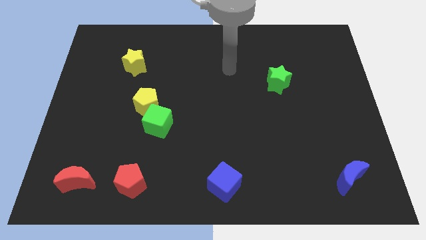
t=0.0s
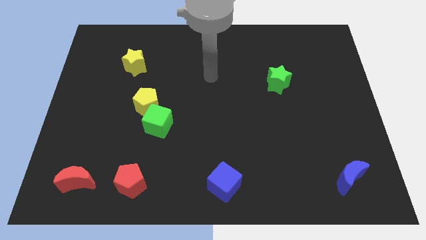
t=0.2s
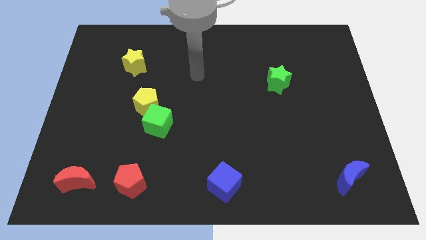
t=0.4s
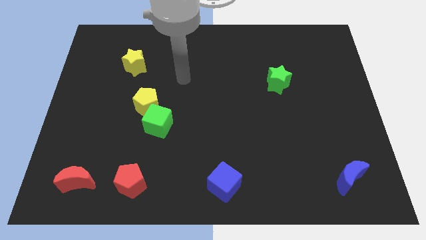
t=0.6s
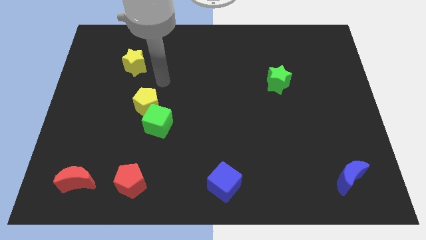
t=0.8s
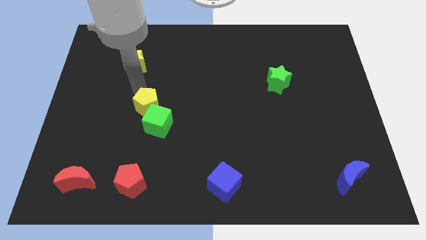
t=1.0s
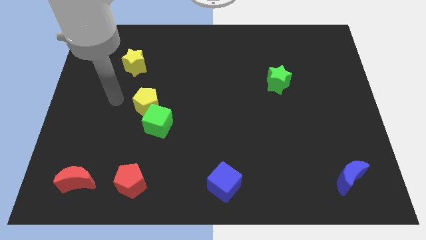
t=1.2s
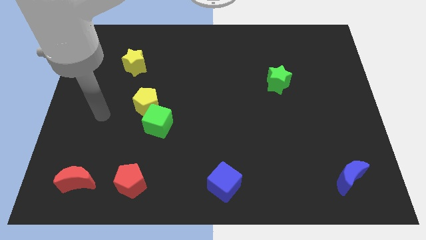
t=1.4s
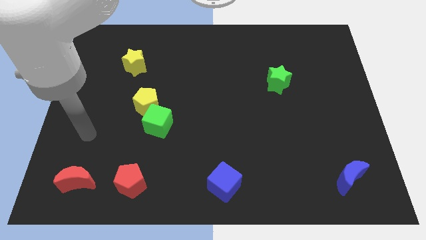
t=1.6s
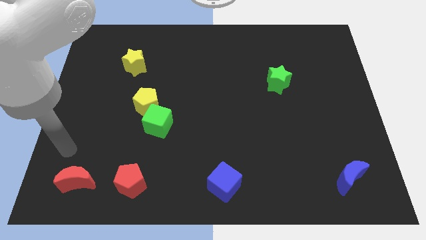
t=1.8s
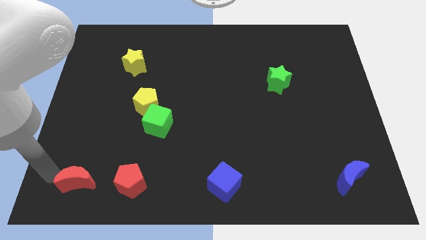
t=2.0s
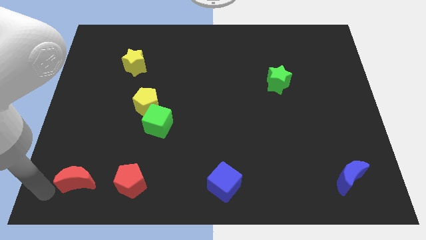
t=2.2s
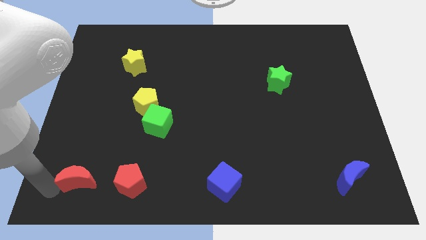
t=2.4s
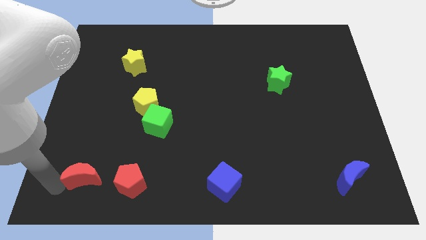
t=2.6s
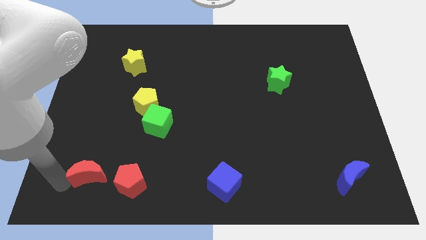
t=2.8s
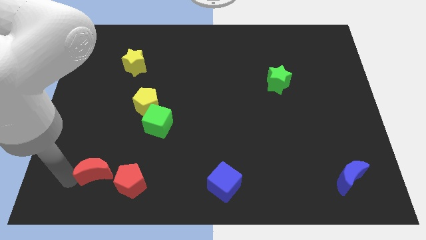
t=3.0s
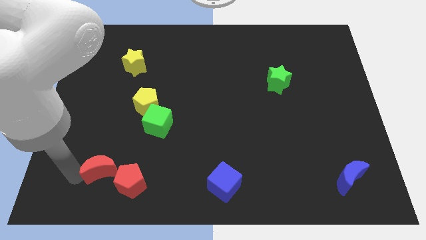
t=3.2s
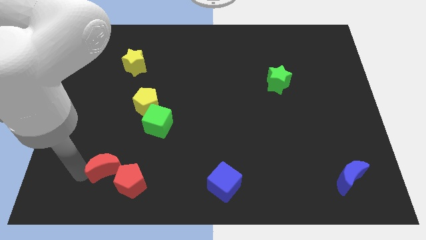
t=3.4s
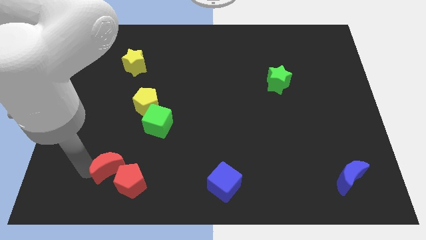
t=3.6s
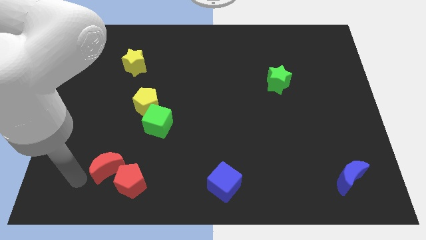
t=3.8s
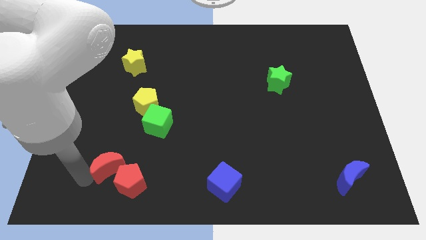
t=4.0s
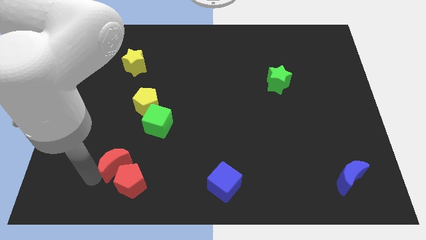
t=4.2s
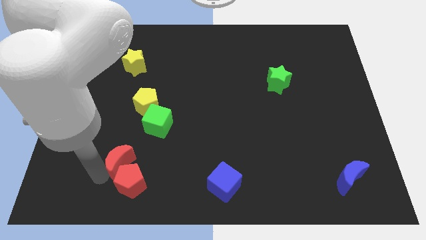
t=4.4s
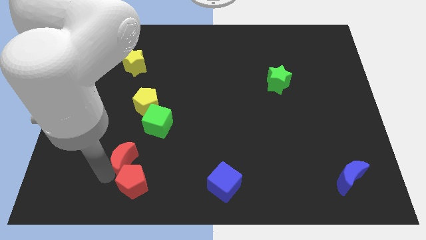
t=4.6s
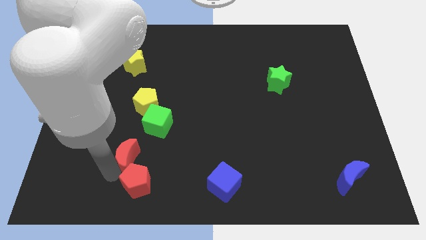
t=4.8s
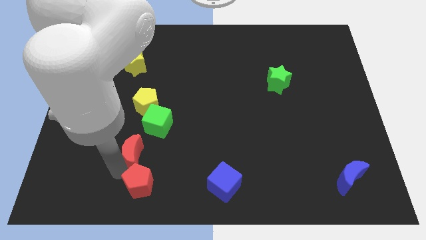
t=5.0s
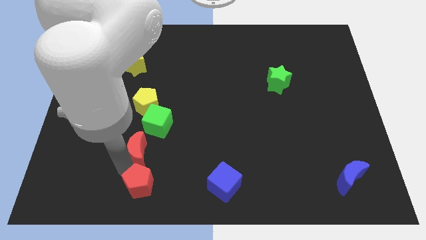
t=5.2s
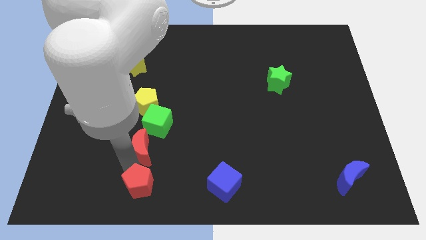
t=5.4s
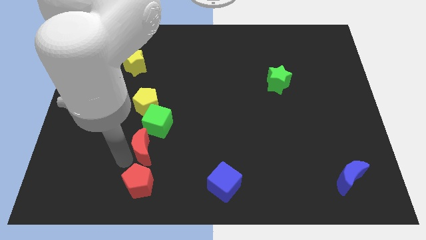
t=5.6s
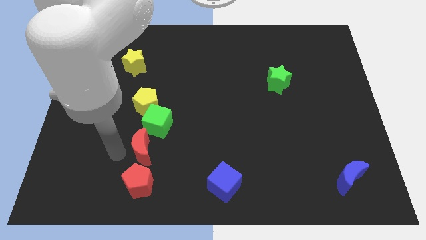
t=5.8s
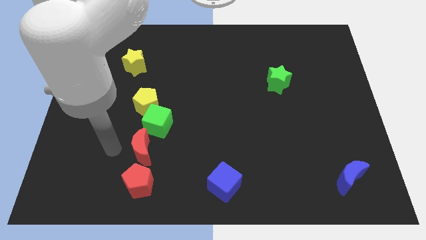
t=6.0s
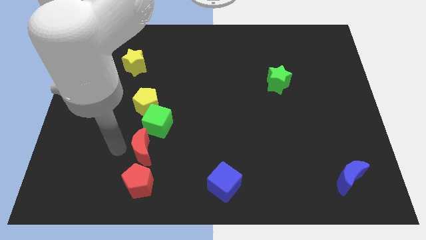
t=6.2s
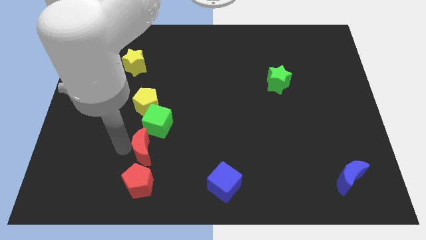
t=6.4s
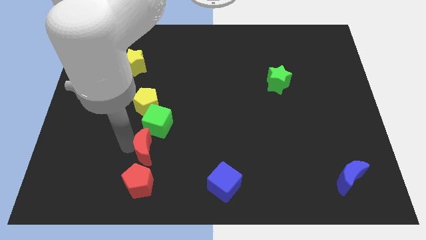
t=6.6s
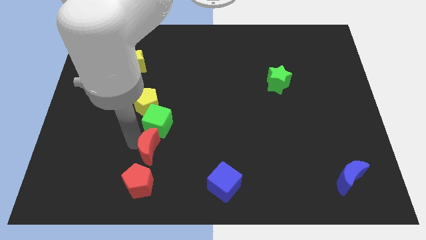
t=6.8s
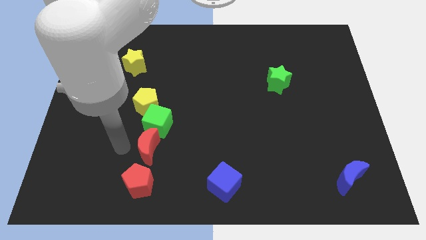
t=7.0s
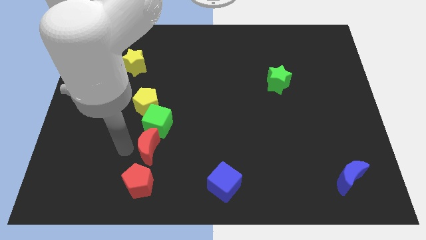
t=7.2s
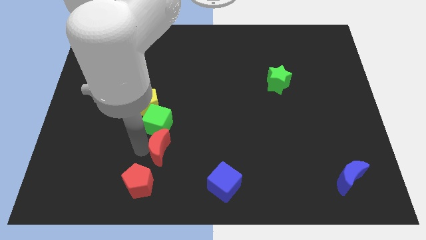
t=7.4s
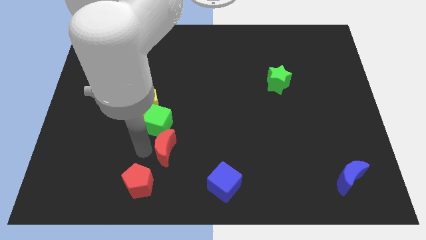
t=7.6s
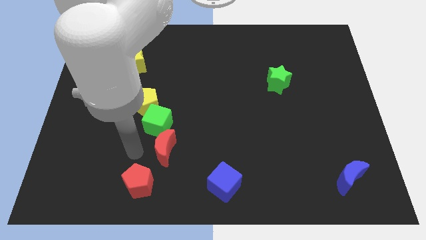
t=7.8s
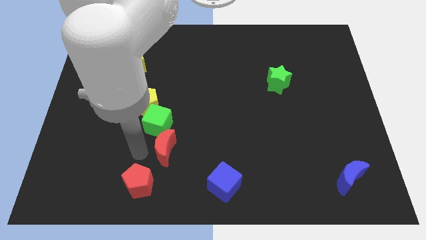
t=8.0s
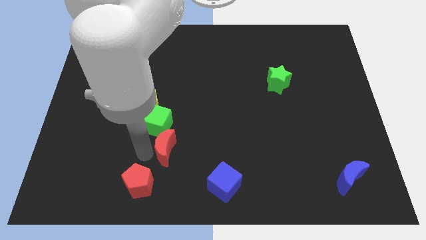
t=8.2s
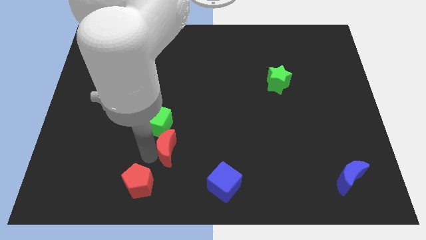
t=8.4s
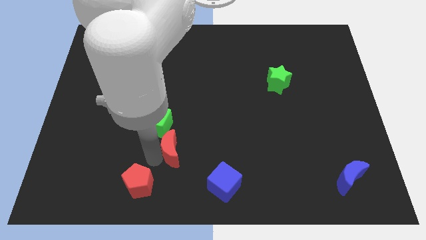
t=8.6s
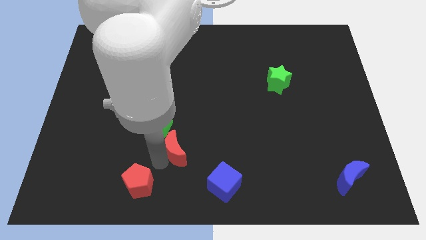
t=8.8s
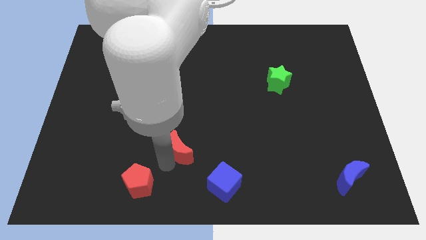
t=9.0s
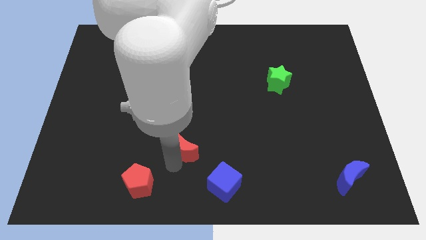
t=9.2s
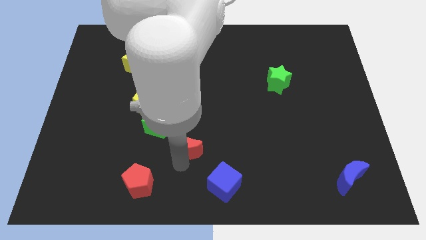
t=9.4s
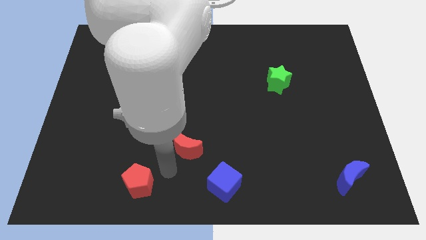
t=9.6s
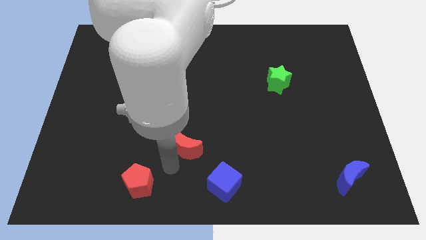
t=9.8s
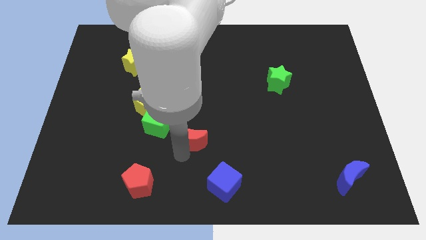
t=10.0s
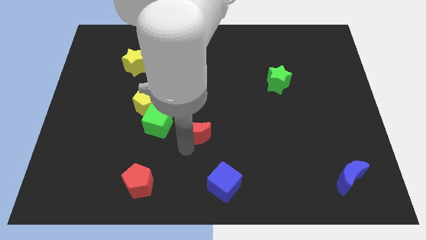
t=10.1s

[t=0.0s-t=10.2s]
move the red moon upwards and to the right diagonally

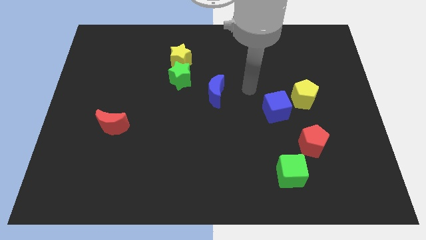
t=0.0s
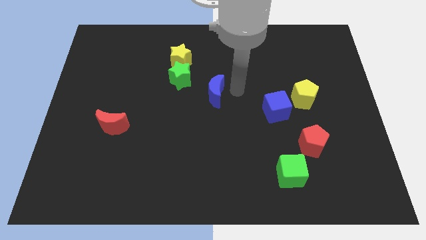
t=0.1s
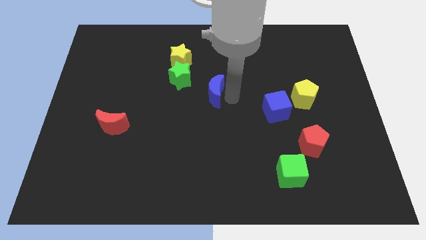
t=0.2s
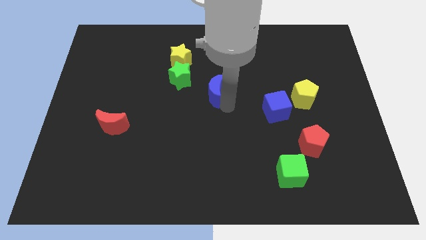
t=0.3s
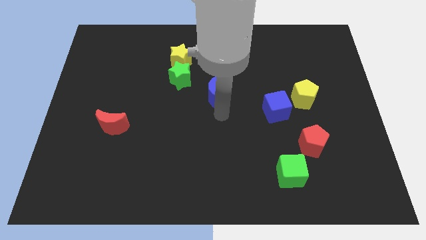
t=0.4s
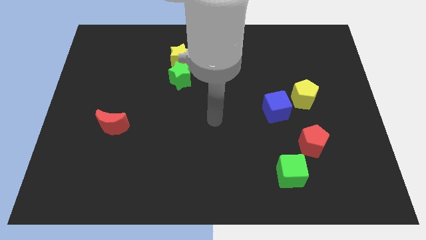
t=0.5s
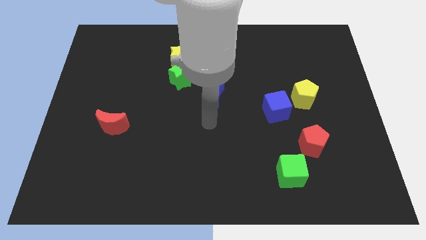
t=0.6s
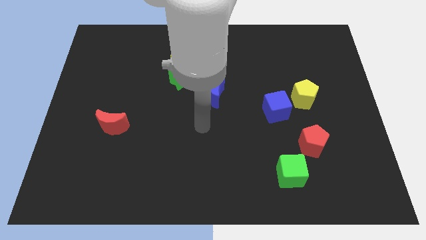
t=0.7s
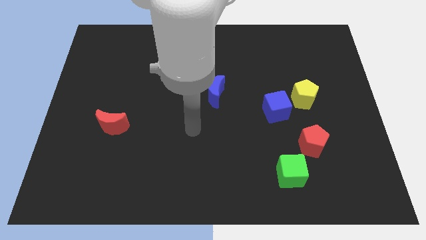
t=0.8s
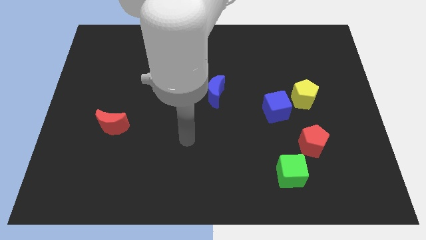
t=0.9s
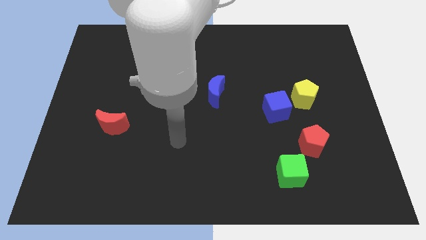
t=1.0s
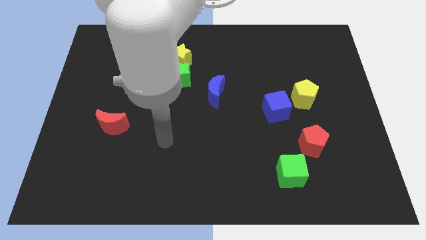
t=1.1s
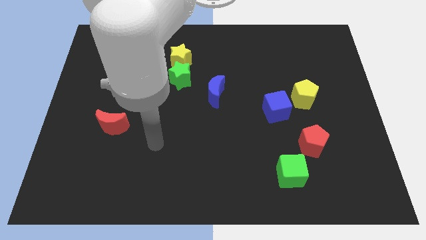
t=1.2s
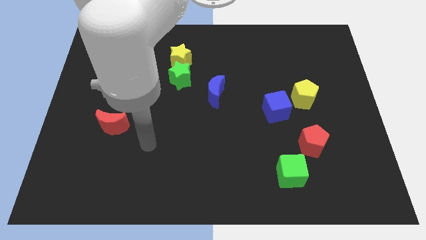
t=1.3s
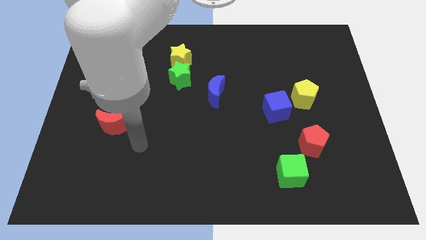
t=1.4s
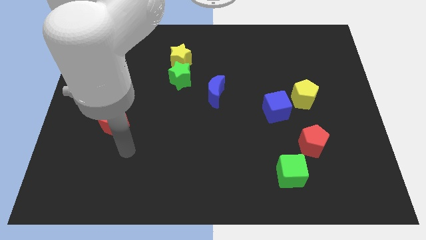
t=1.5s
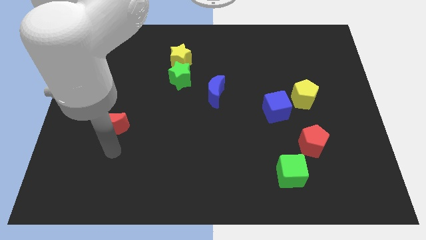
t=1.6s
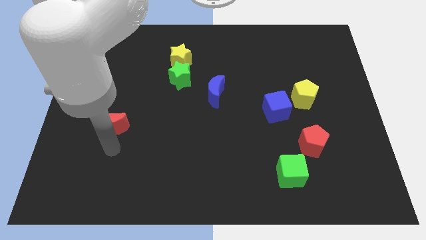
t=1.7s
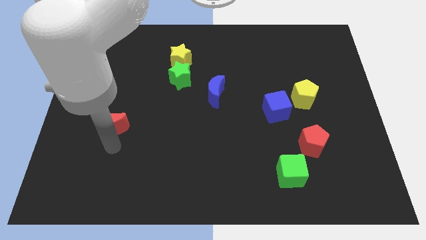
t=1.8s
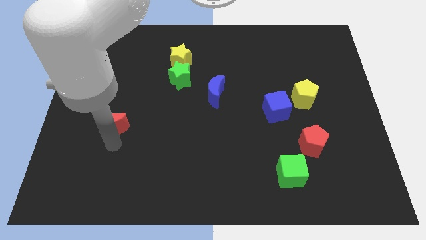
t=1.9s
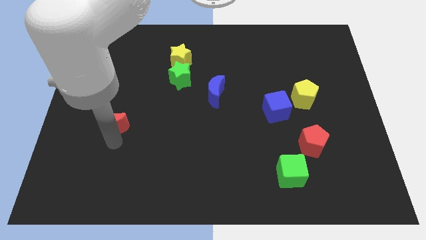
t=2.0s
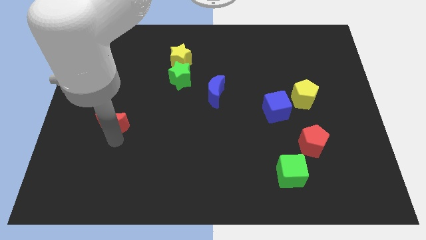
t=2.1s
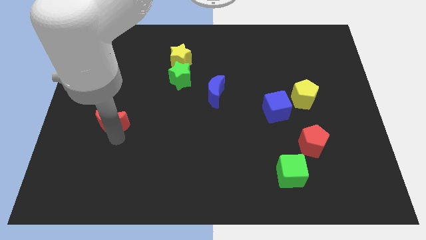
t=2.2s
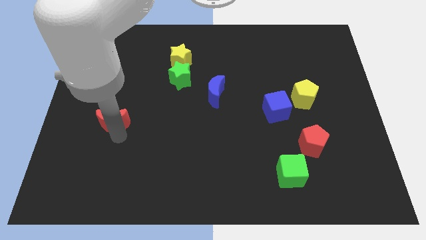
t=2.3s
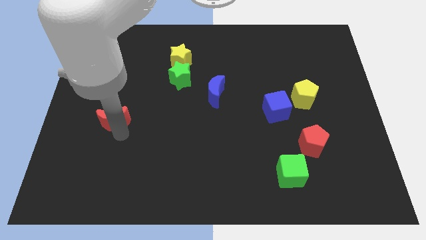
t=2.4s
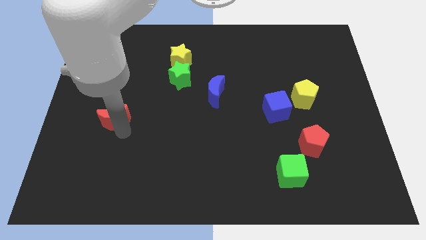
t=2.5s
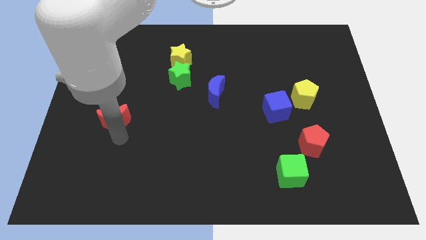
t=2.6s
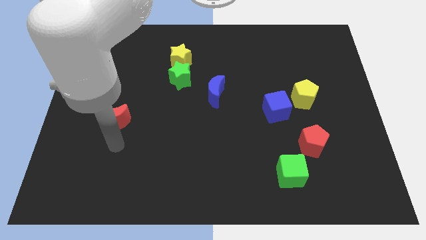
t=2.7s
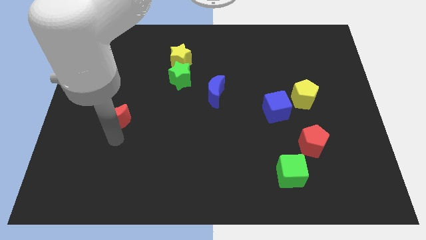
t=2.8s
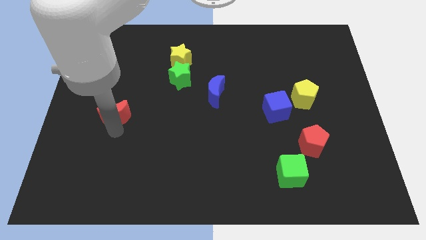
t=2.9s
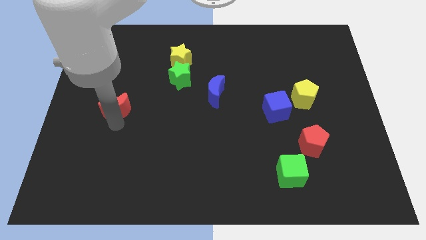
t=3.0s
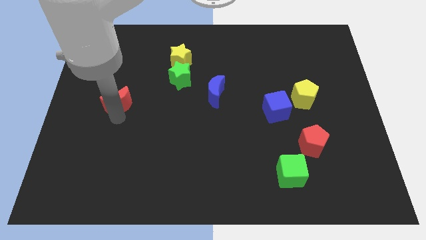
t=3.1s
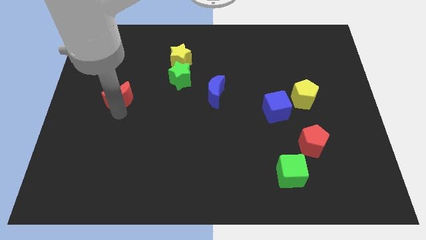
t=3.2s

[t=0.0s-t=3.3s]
slide the red moon up a bit

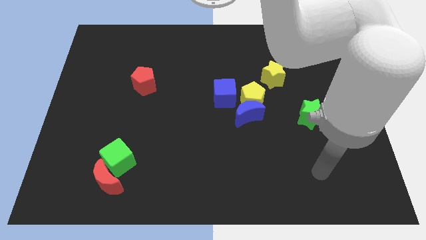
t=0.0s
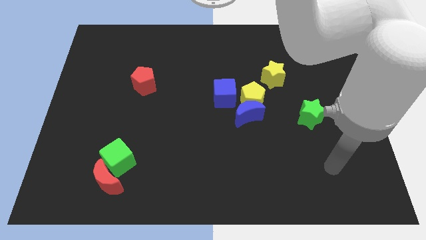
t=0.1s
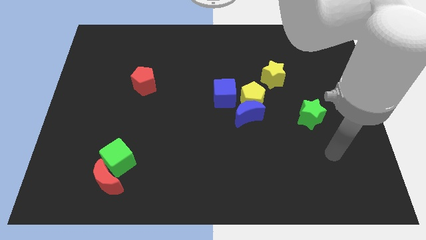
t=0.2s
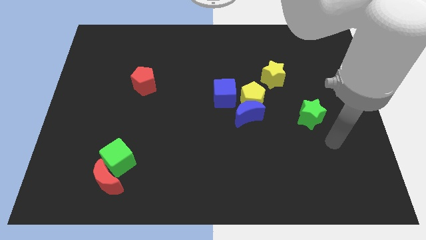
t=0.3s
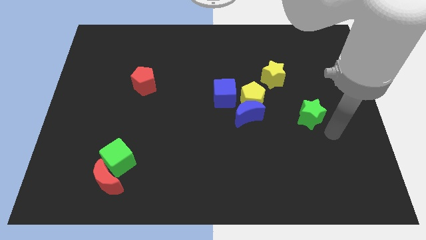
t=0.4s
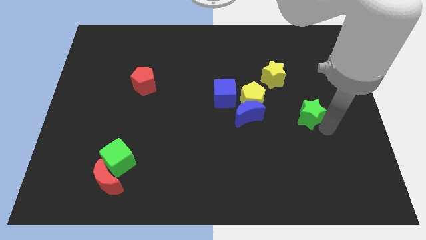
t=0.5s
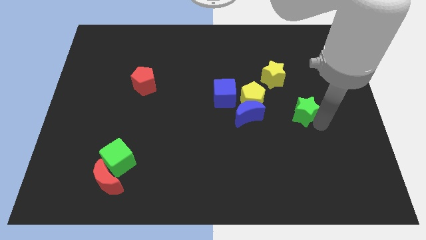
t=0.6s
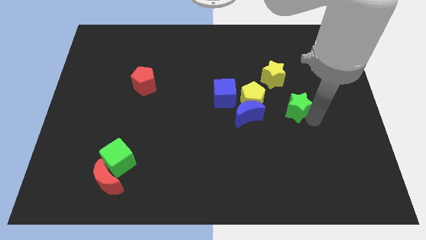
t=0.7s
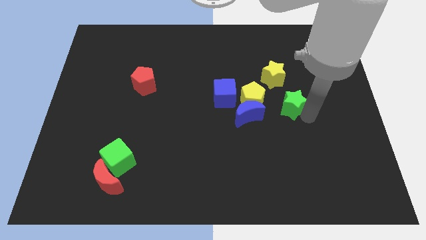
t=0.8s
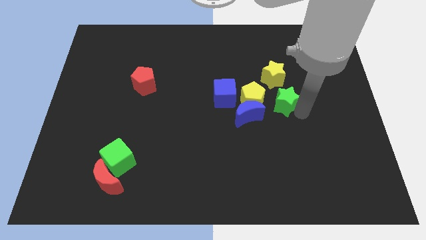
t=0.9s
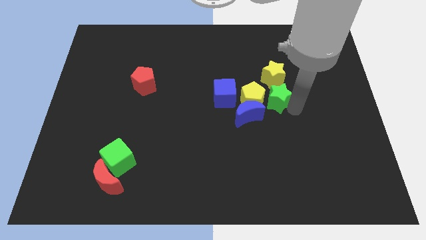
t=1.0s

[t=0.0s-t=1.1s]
slightly slide the green star diagonally up and to the left
